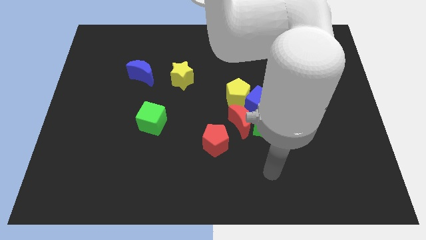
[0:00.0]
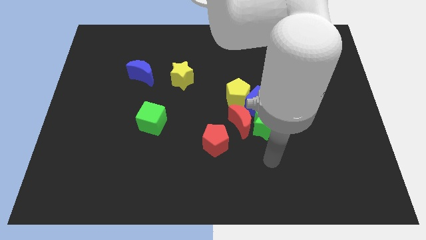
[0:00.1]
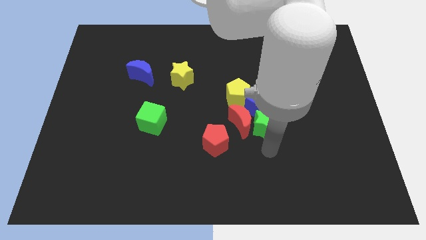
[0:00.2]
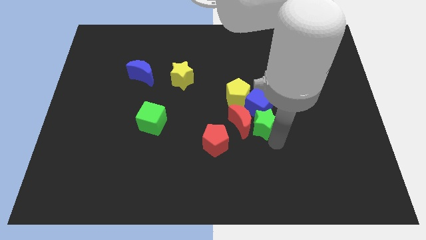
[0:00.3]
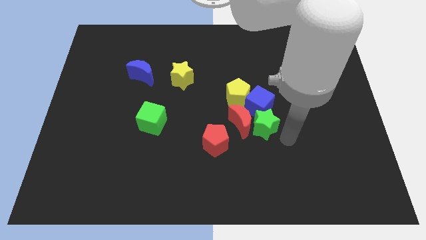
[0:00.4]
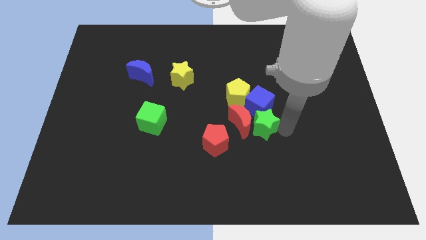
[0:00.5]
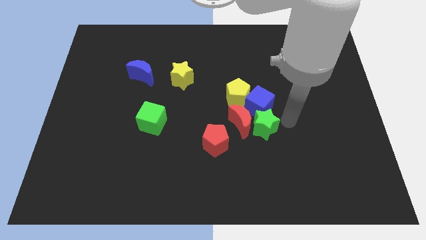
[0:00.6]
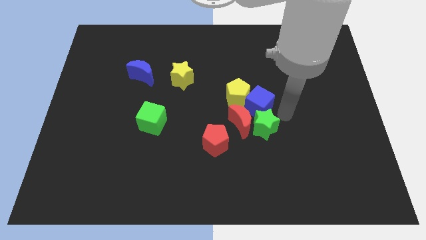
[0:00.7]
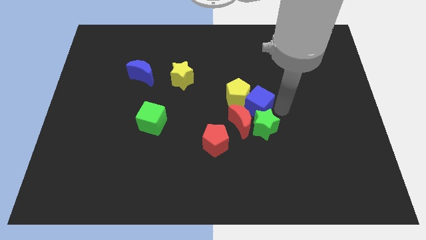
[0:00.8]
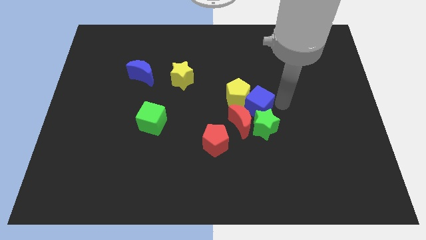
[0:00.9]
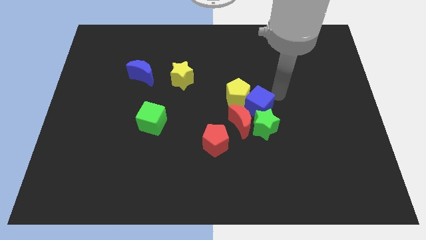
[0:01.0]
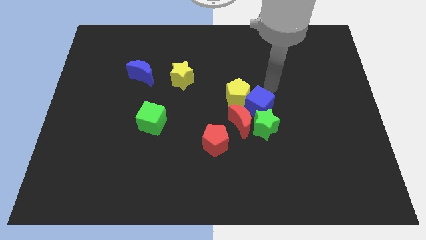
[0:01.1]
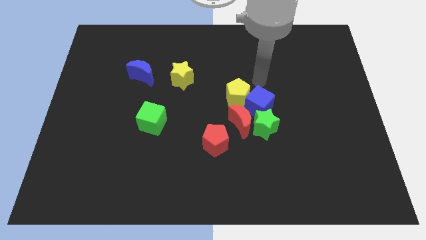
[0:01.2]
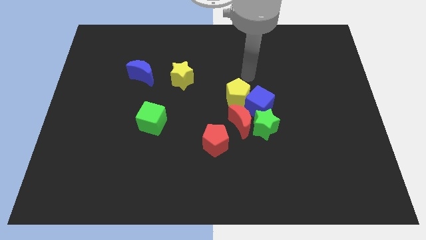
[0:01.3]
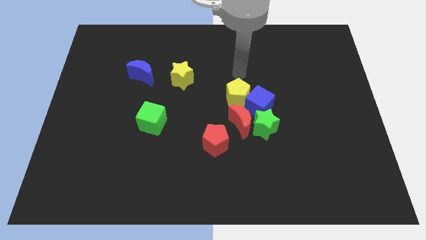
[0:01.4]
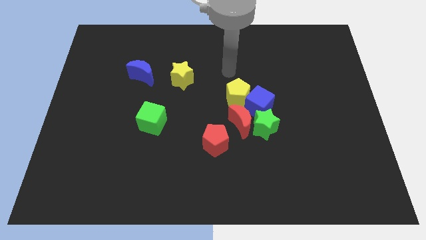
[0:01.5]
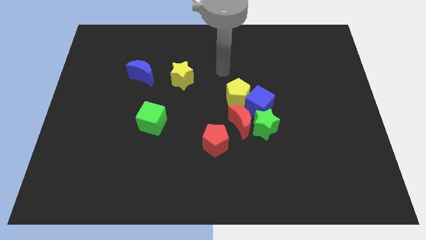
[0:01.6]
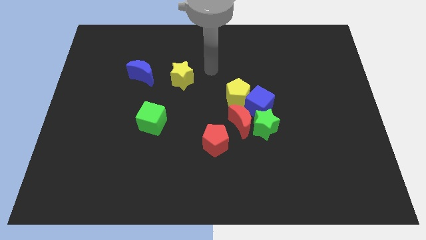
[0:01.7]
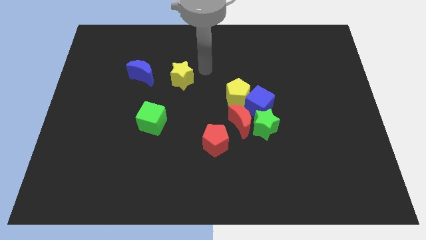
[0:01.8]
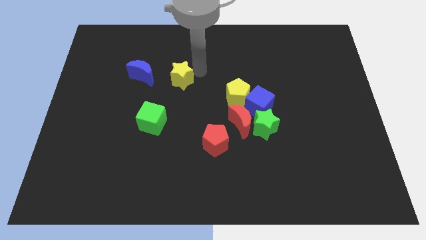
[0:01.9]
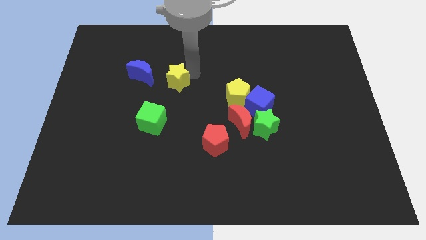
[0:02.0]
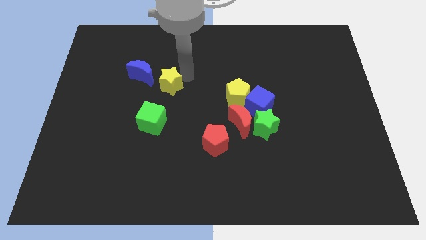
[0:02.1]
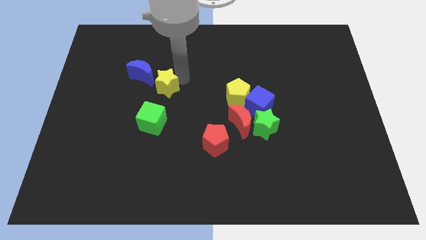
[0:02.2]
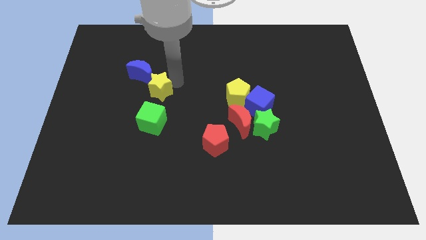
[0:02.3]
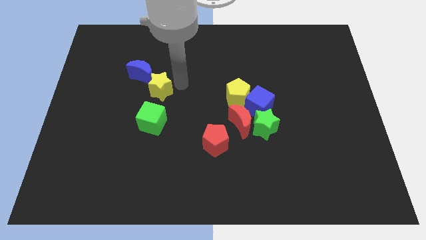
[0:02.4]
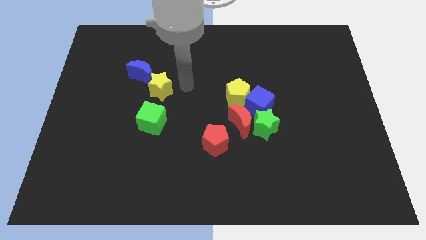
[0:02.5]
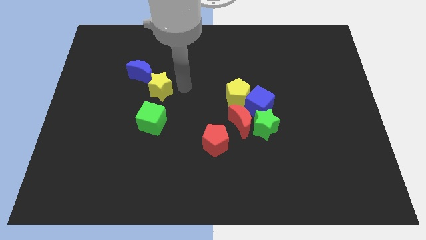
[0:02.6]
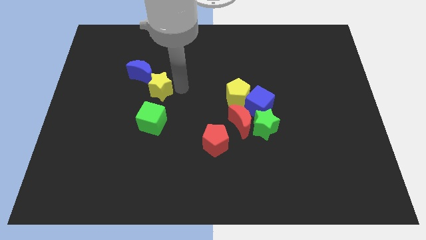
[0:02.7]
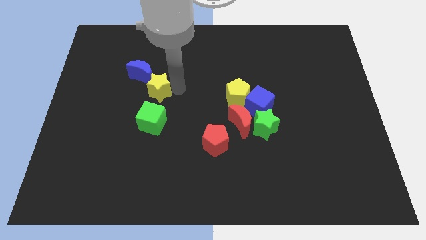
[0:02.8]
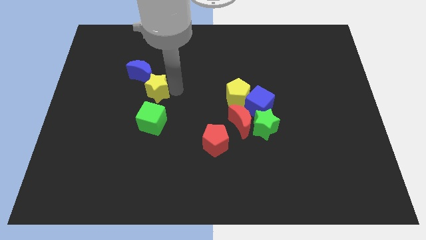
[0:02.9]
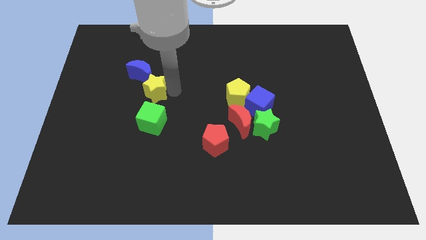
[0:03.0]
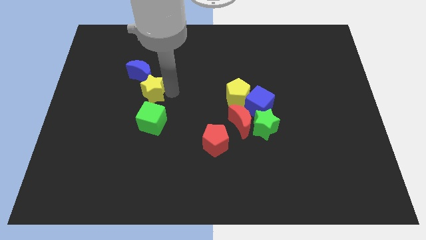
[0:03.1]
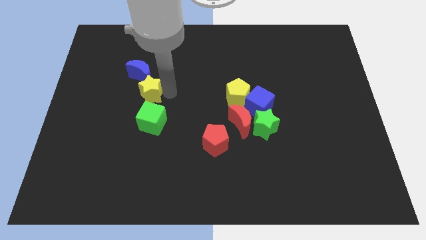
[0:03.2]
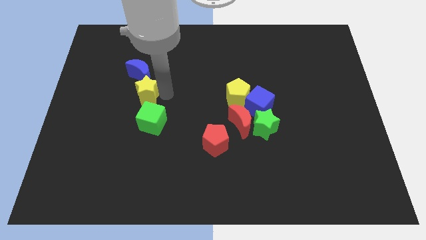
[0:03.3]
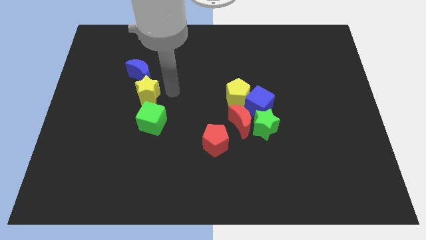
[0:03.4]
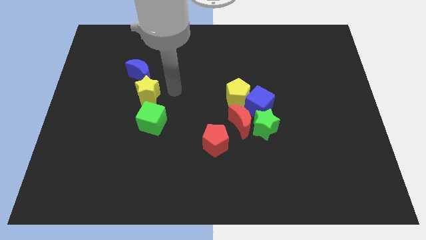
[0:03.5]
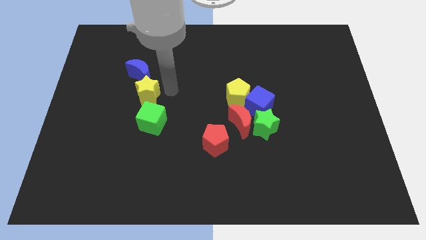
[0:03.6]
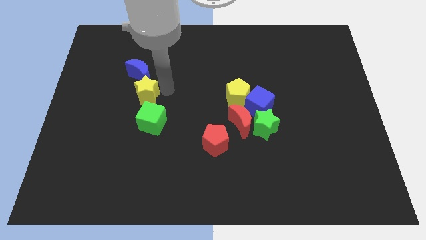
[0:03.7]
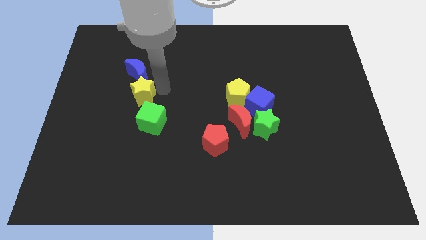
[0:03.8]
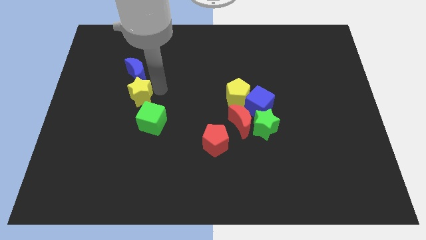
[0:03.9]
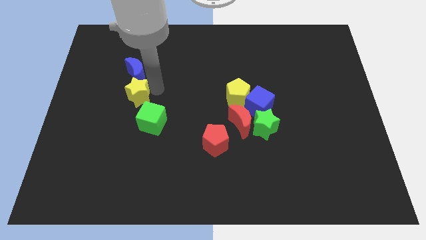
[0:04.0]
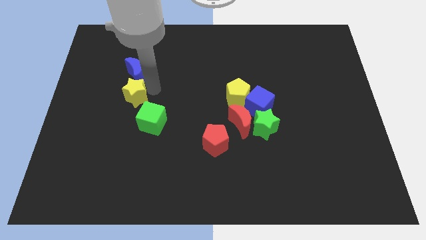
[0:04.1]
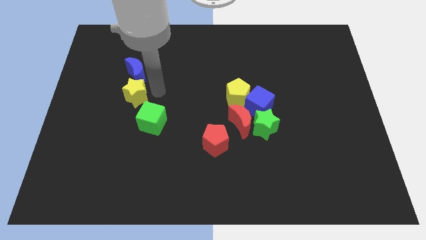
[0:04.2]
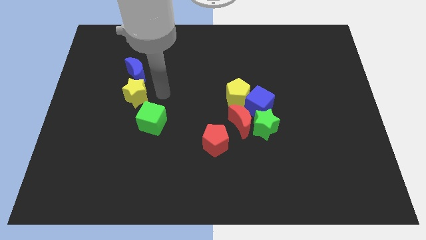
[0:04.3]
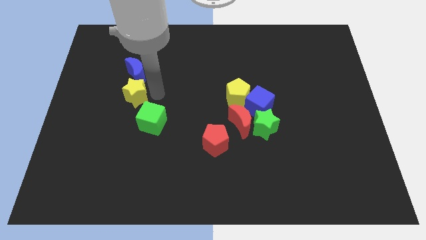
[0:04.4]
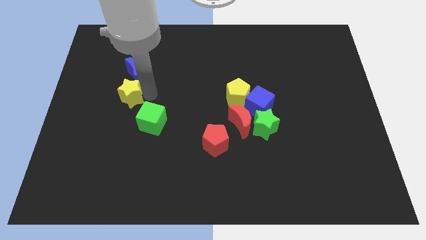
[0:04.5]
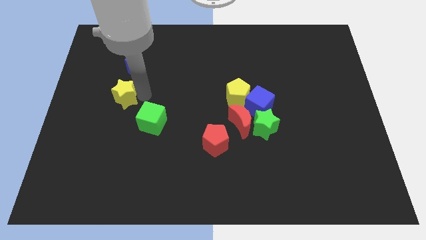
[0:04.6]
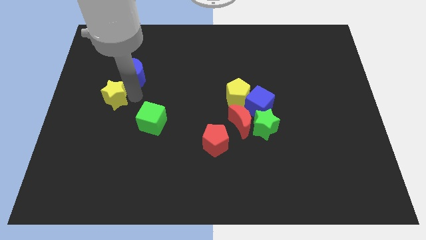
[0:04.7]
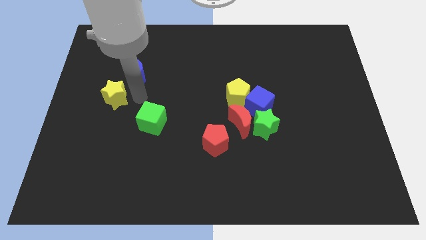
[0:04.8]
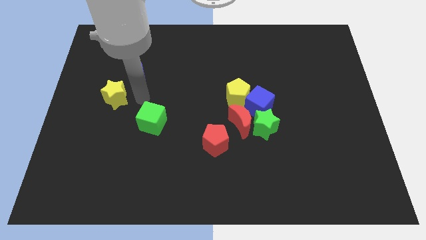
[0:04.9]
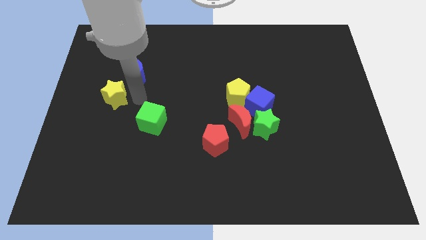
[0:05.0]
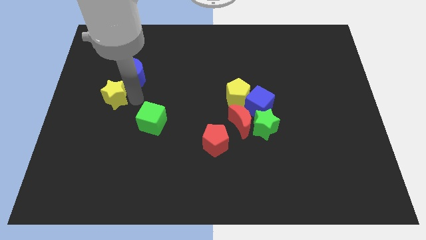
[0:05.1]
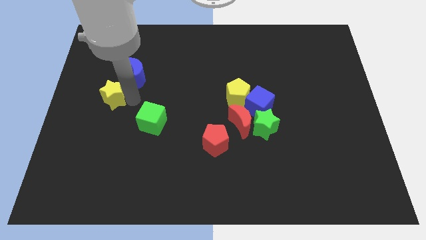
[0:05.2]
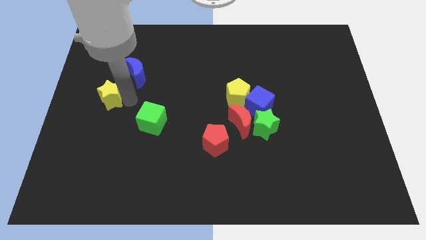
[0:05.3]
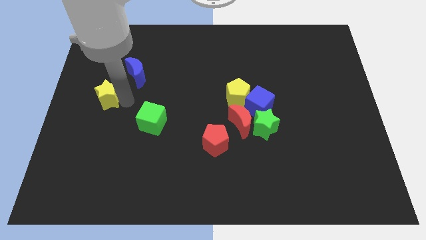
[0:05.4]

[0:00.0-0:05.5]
move the yellow star to the left side

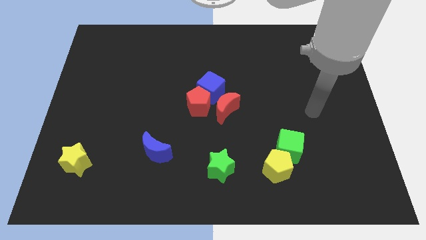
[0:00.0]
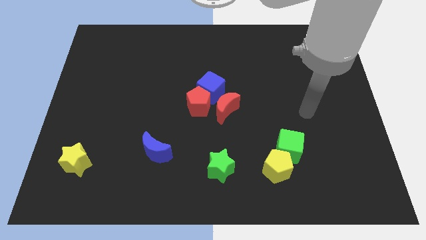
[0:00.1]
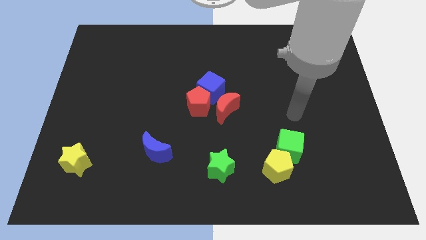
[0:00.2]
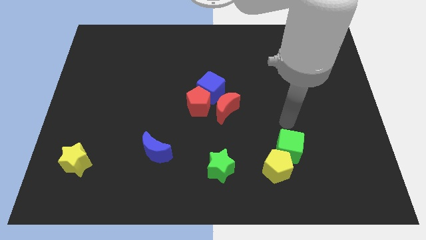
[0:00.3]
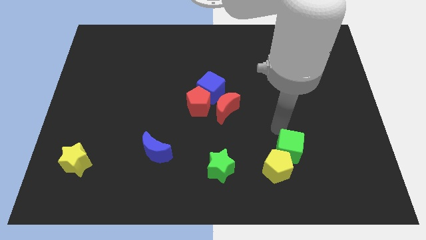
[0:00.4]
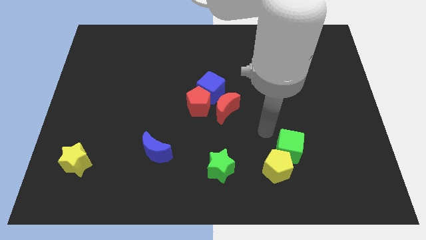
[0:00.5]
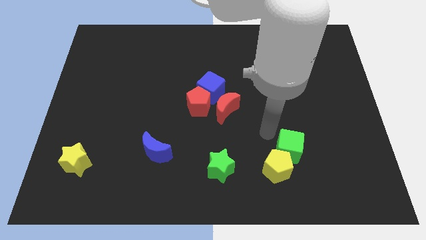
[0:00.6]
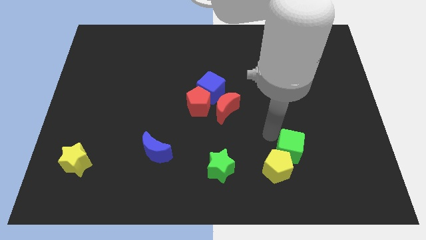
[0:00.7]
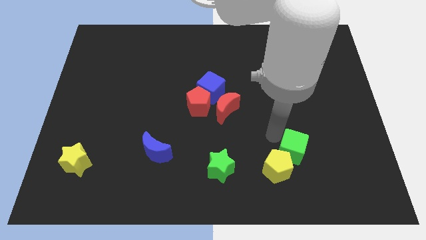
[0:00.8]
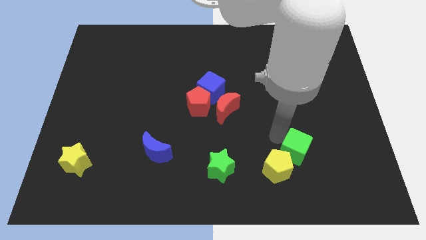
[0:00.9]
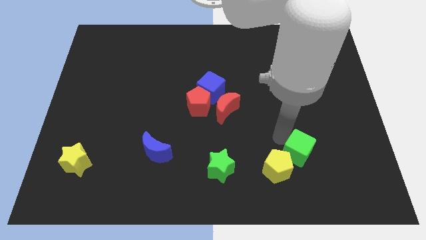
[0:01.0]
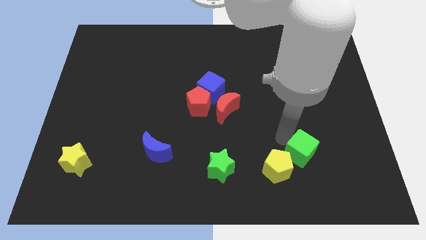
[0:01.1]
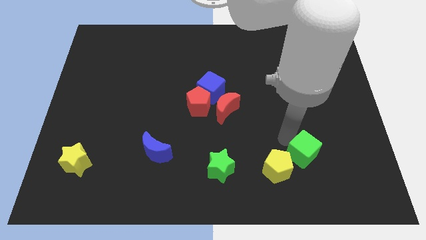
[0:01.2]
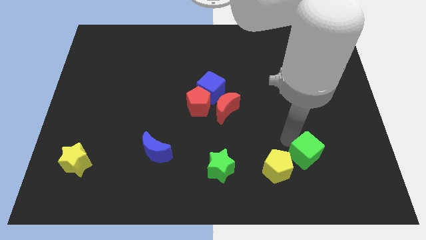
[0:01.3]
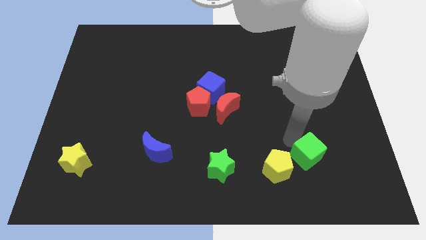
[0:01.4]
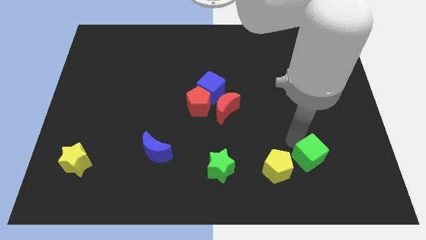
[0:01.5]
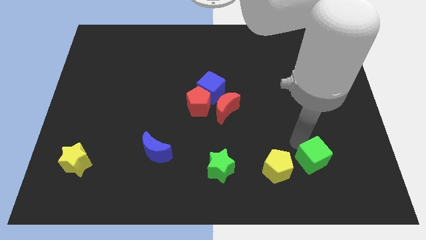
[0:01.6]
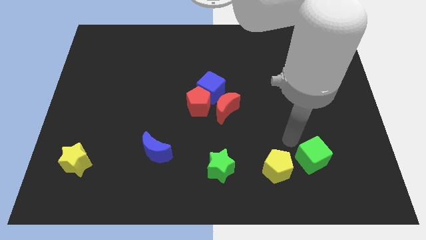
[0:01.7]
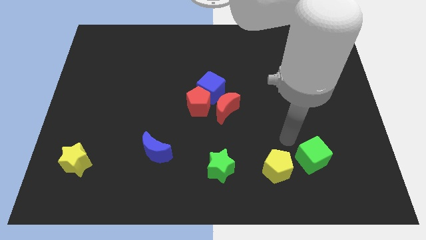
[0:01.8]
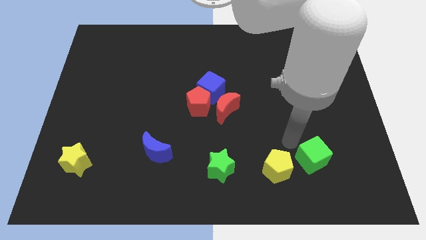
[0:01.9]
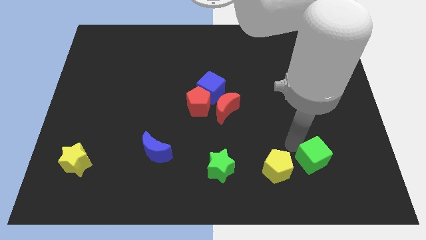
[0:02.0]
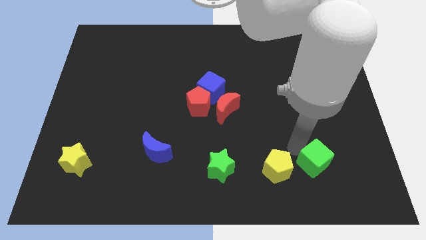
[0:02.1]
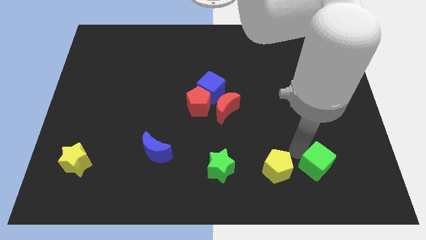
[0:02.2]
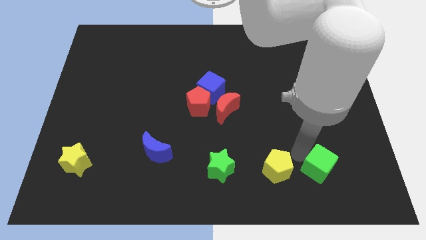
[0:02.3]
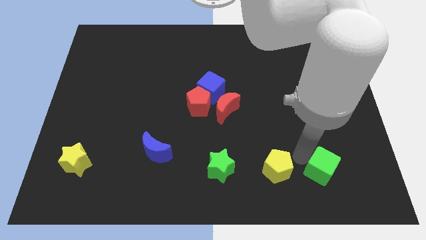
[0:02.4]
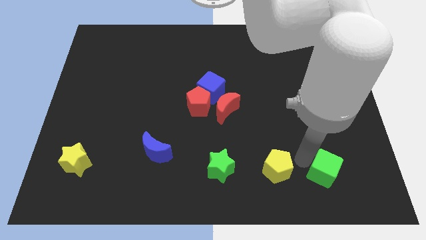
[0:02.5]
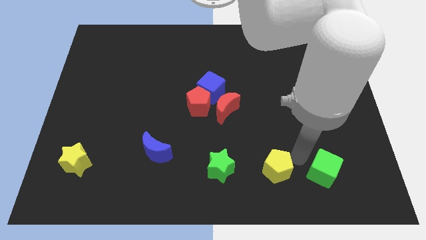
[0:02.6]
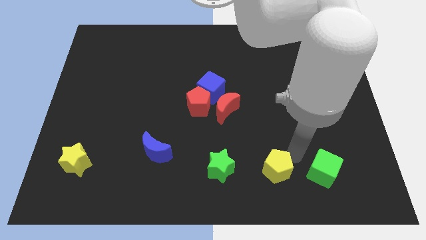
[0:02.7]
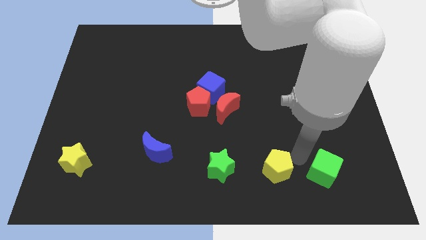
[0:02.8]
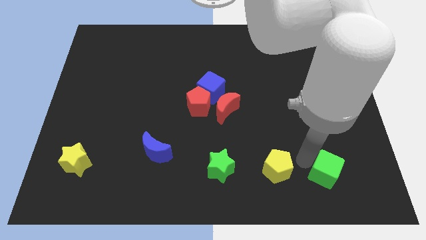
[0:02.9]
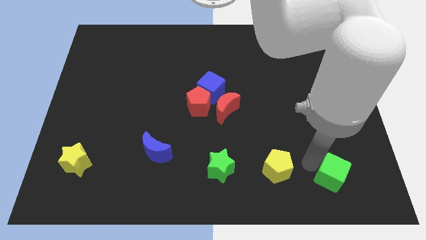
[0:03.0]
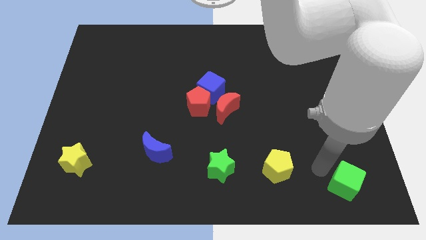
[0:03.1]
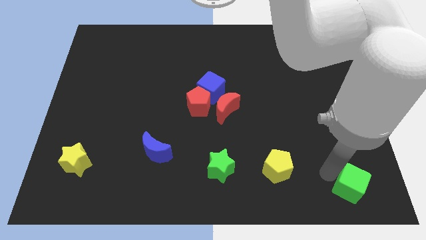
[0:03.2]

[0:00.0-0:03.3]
move the green cube to the bottom right of the board
